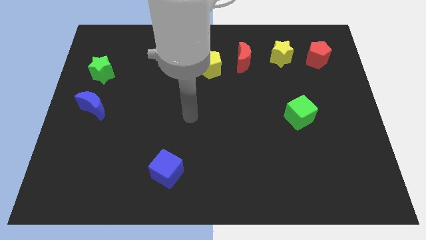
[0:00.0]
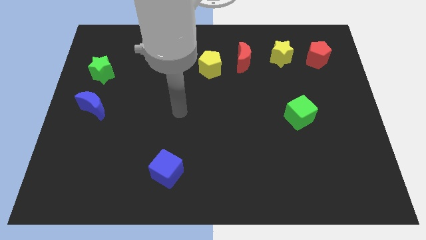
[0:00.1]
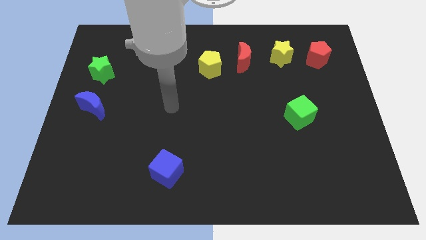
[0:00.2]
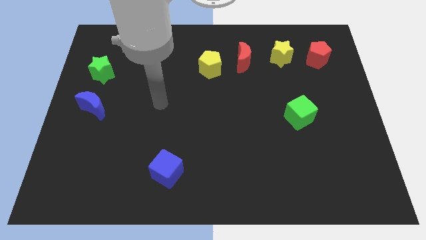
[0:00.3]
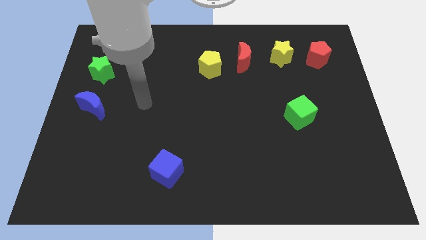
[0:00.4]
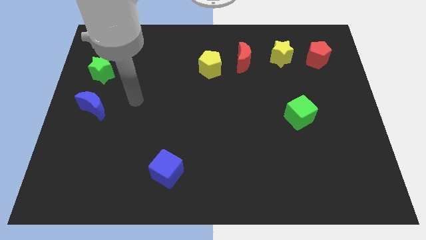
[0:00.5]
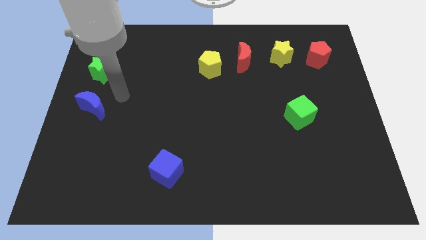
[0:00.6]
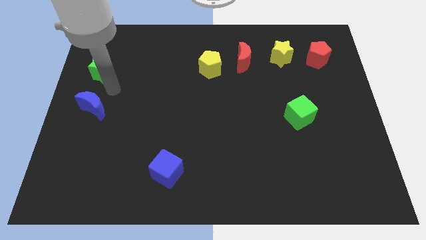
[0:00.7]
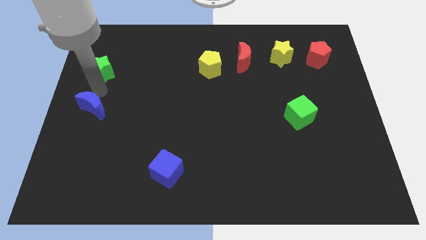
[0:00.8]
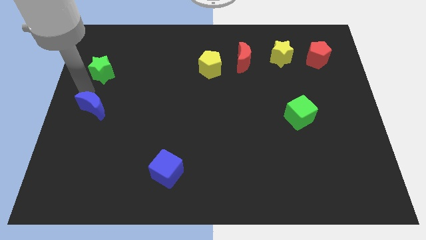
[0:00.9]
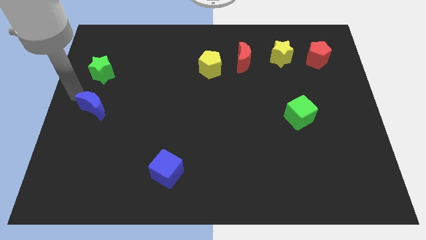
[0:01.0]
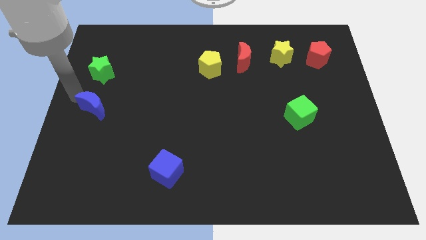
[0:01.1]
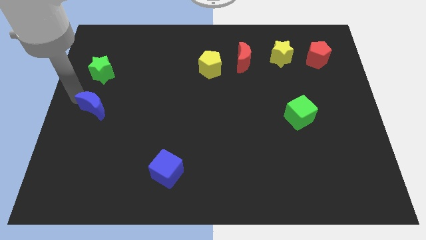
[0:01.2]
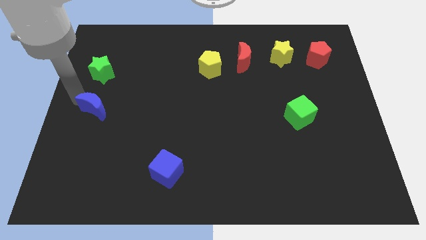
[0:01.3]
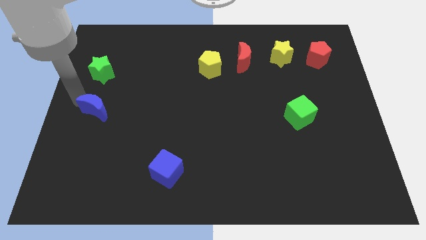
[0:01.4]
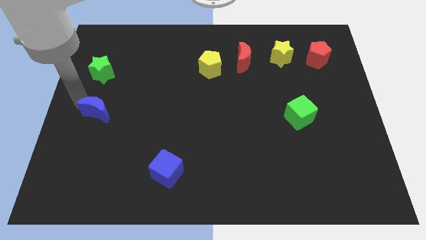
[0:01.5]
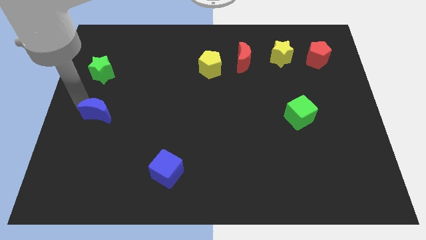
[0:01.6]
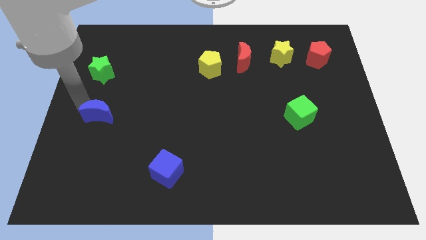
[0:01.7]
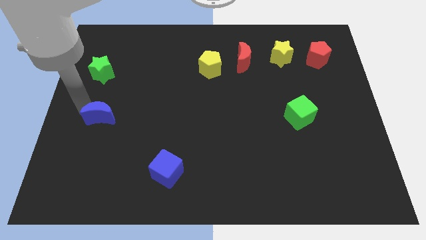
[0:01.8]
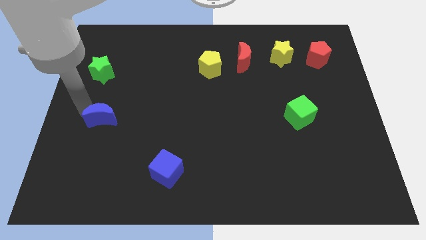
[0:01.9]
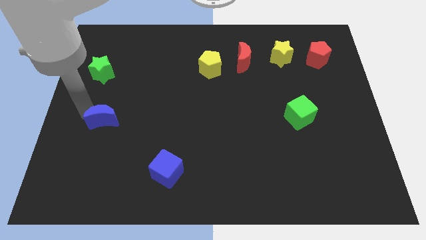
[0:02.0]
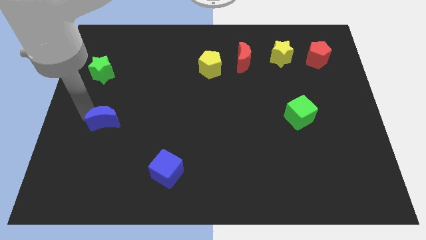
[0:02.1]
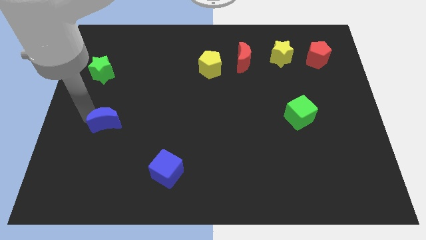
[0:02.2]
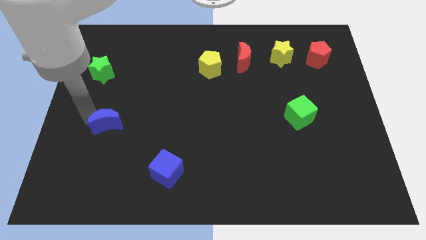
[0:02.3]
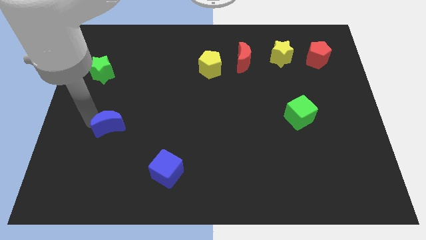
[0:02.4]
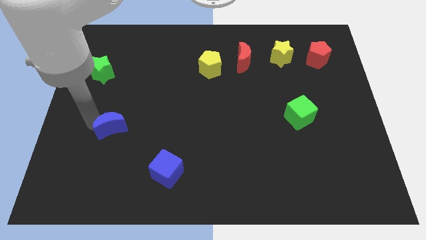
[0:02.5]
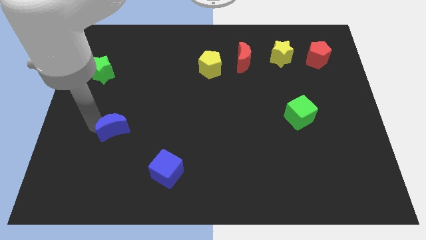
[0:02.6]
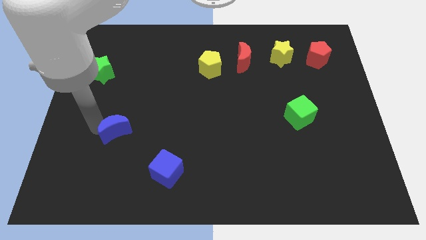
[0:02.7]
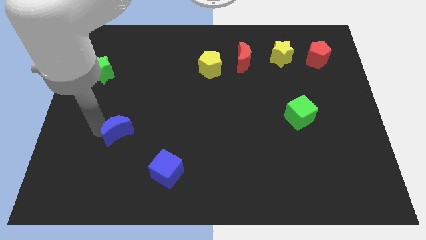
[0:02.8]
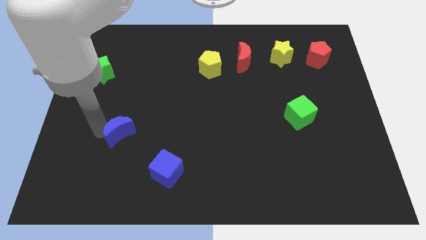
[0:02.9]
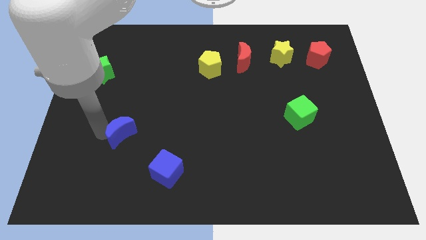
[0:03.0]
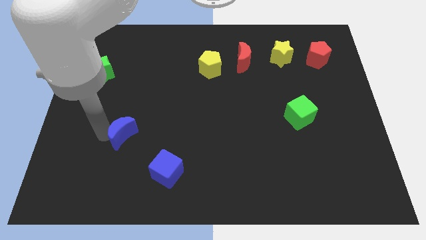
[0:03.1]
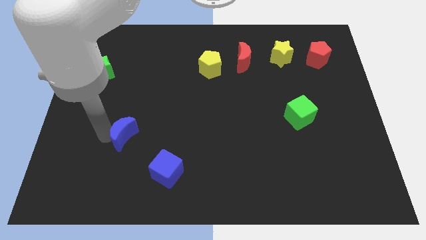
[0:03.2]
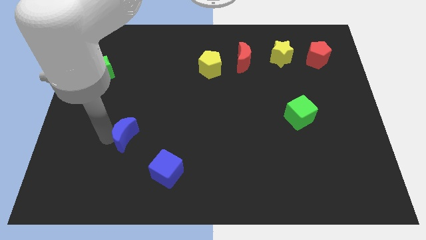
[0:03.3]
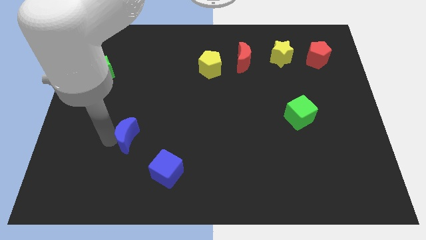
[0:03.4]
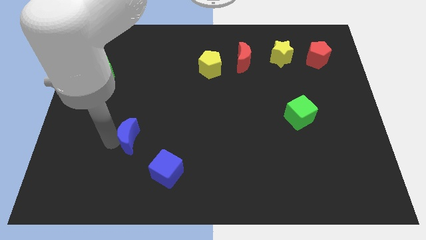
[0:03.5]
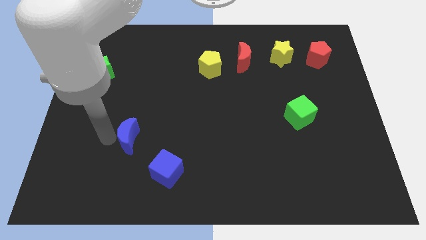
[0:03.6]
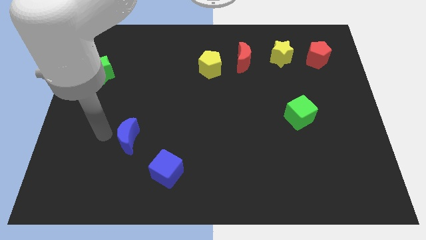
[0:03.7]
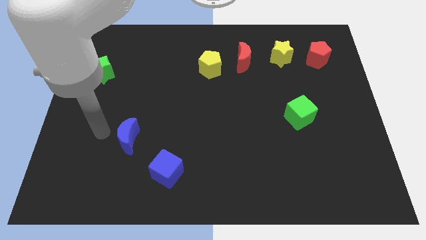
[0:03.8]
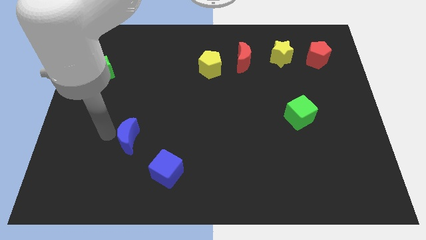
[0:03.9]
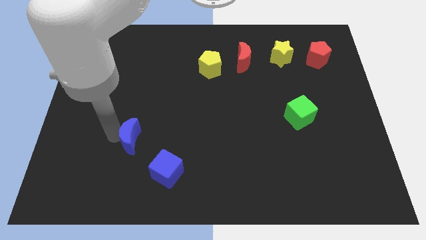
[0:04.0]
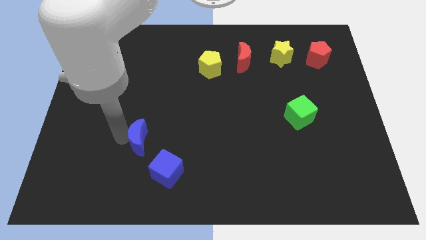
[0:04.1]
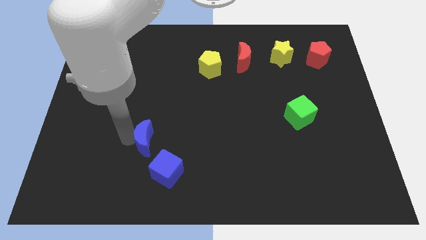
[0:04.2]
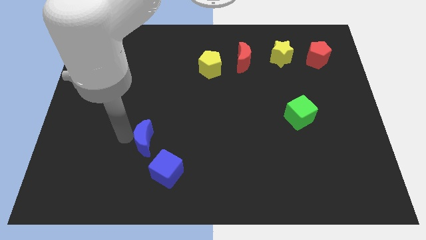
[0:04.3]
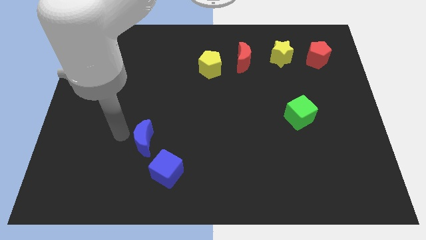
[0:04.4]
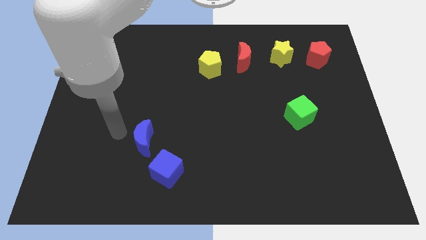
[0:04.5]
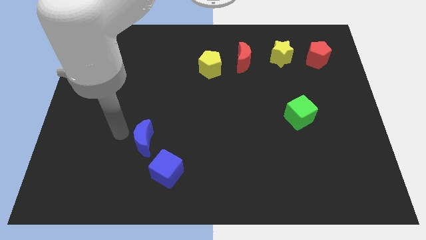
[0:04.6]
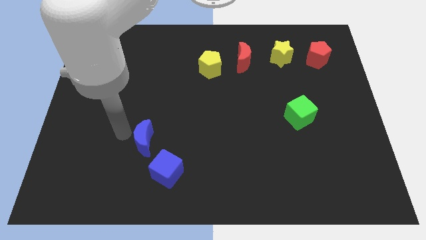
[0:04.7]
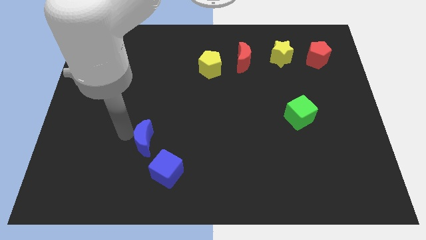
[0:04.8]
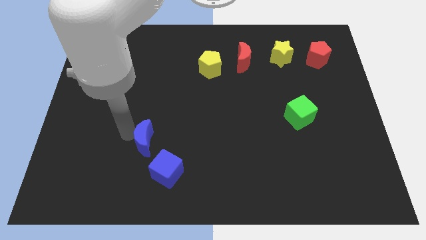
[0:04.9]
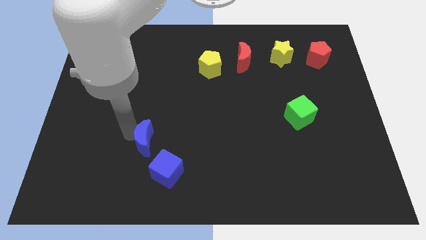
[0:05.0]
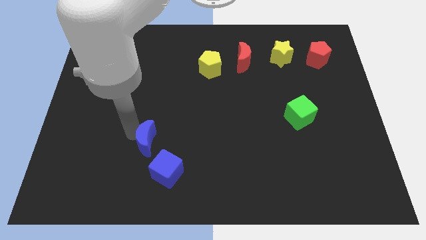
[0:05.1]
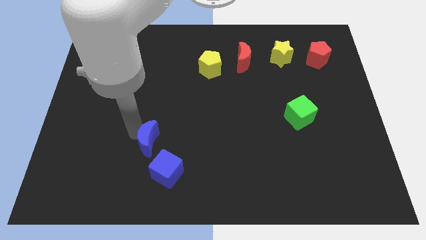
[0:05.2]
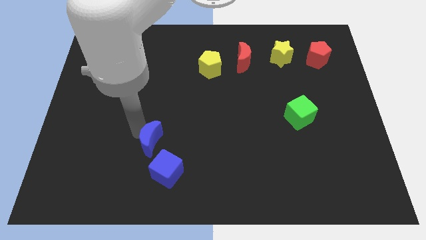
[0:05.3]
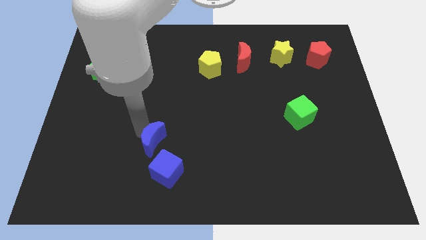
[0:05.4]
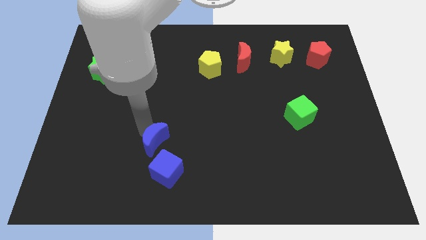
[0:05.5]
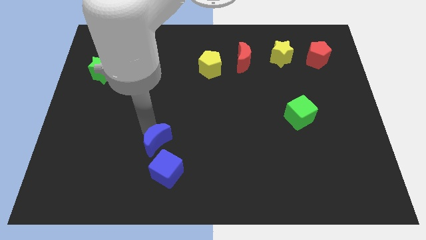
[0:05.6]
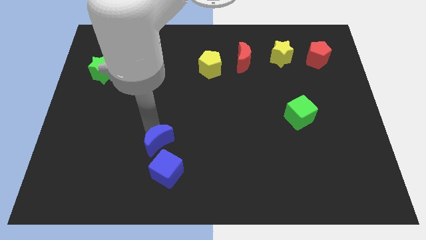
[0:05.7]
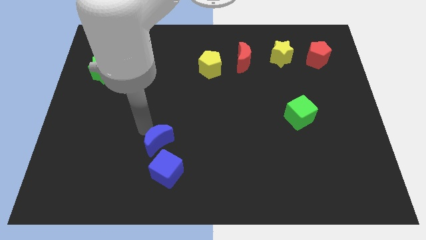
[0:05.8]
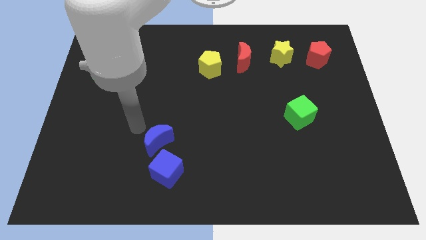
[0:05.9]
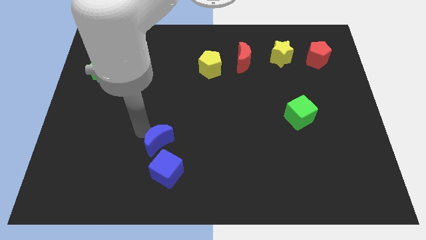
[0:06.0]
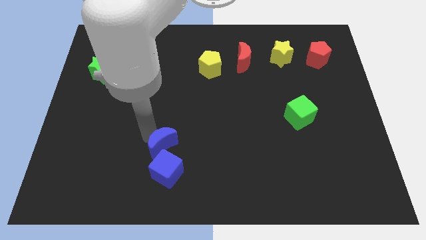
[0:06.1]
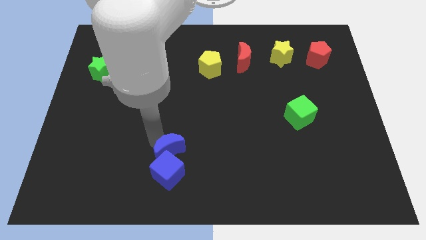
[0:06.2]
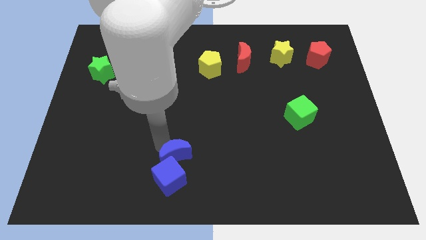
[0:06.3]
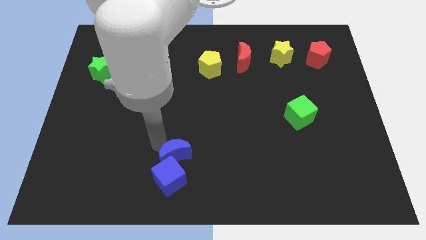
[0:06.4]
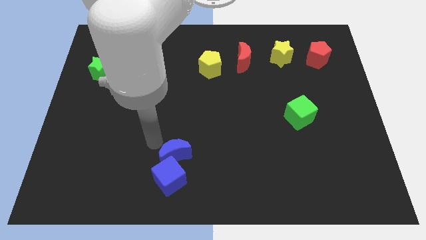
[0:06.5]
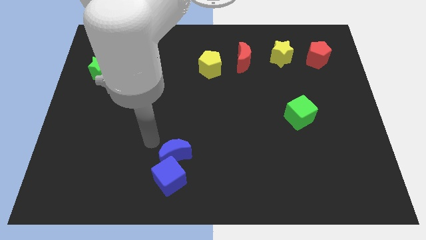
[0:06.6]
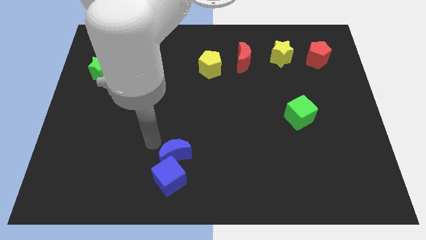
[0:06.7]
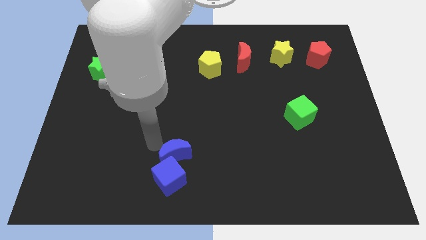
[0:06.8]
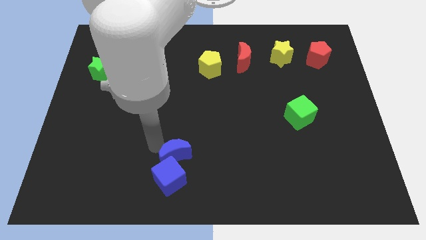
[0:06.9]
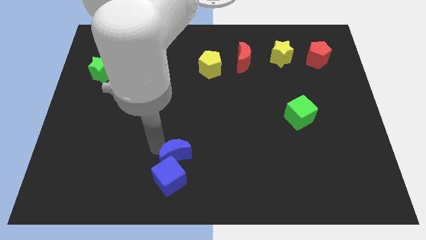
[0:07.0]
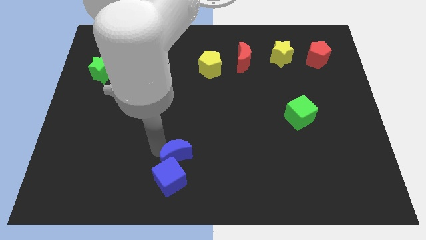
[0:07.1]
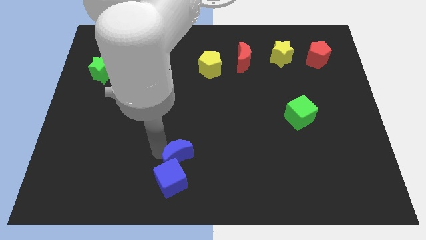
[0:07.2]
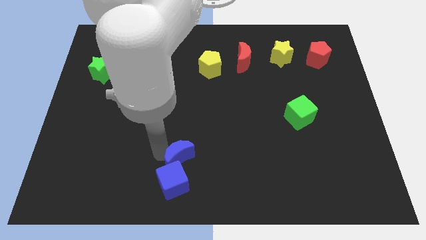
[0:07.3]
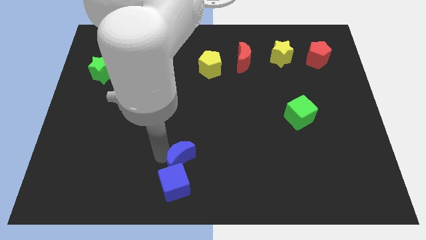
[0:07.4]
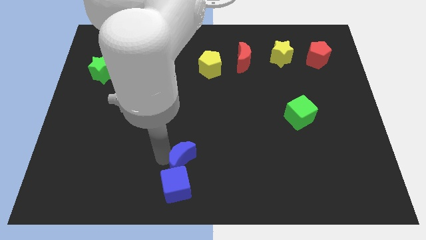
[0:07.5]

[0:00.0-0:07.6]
push the blue moon to the bottom
